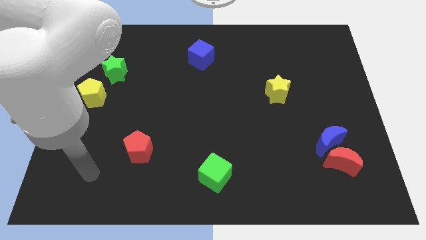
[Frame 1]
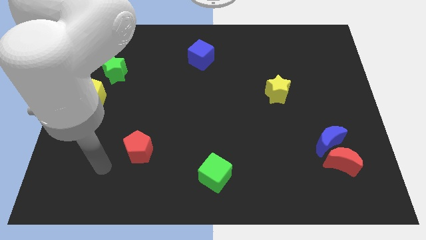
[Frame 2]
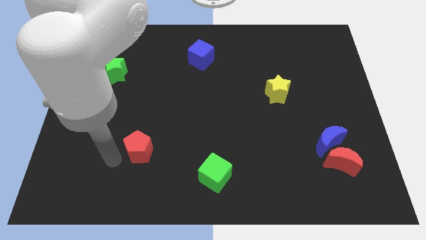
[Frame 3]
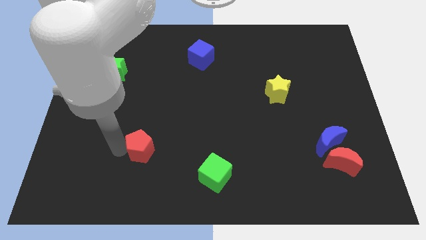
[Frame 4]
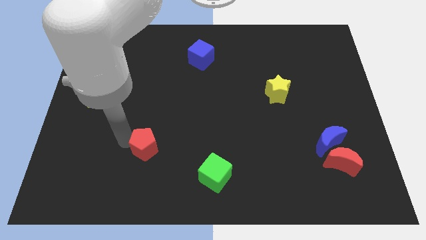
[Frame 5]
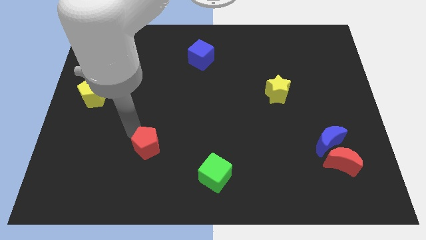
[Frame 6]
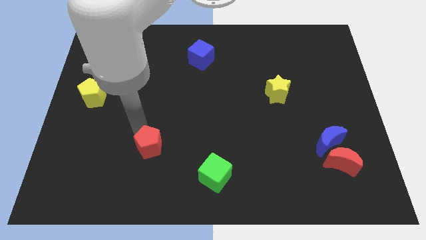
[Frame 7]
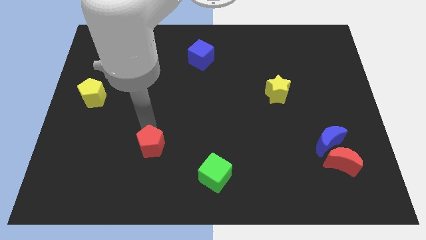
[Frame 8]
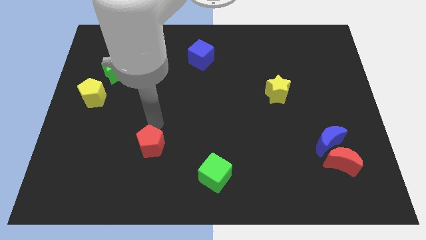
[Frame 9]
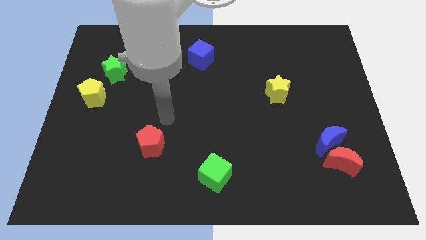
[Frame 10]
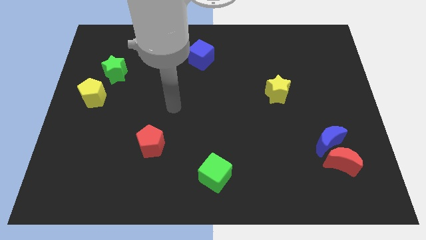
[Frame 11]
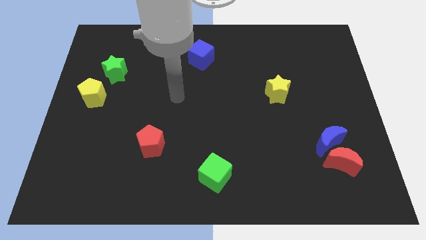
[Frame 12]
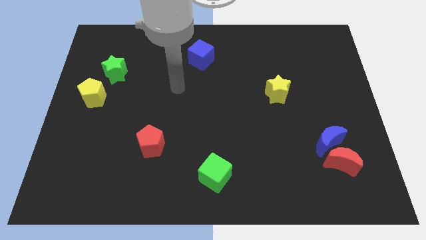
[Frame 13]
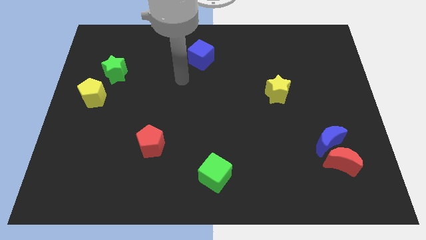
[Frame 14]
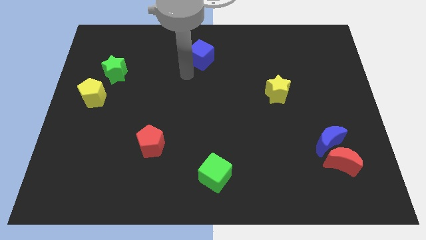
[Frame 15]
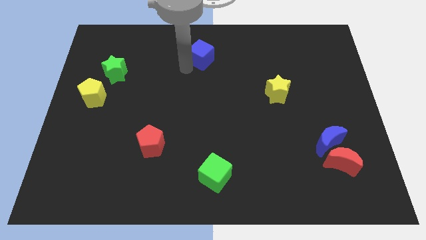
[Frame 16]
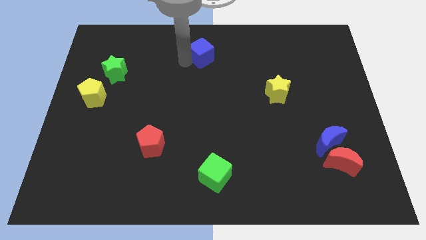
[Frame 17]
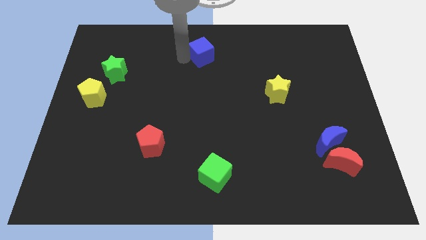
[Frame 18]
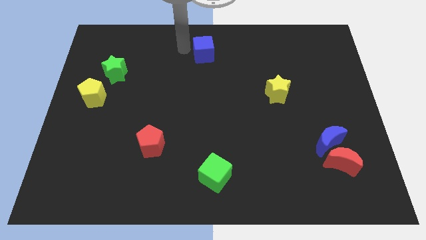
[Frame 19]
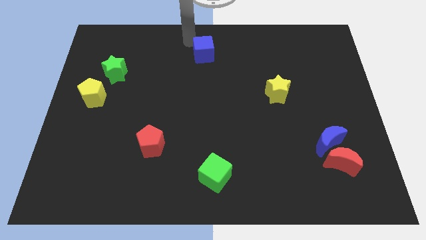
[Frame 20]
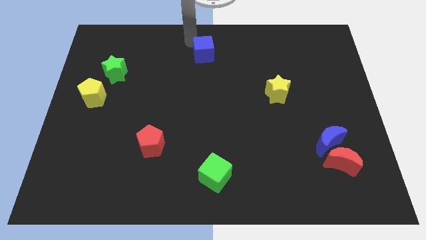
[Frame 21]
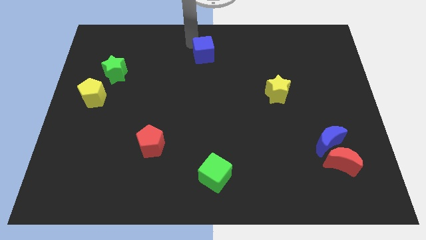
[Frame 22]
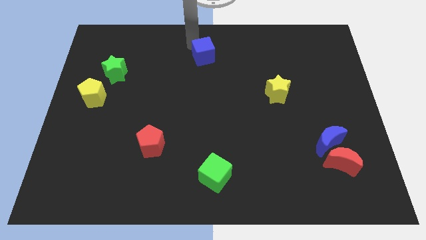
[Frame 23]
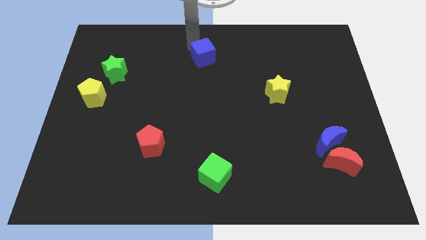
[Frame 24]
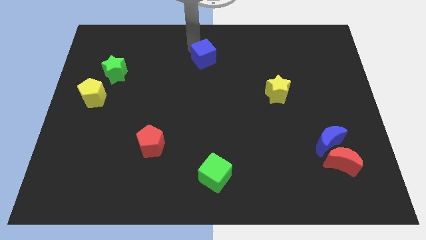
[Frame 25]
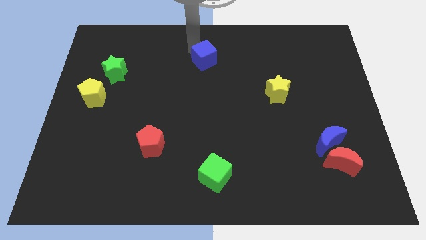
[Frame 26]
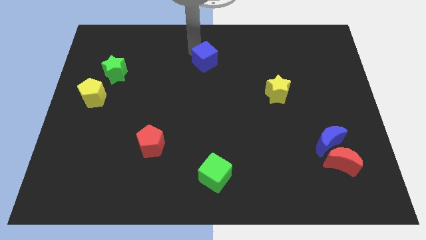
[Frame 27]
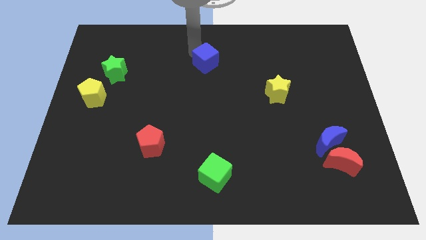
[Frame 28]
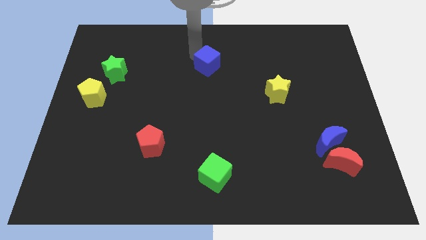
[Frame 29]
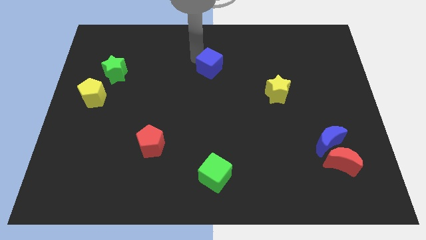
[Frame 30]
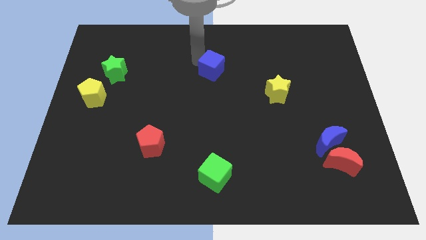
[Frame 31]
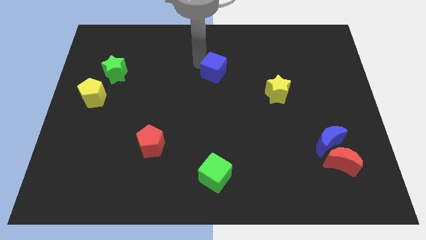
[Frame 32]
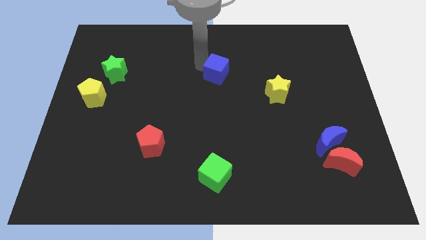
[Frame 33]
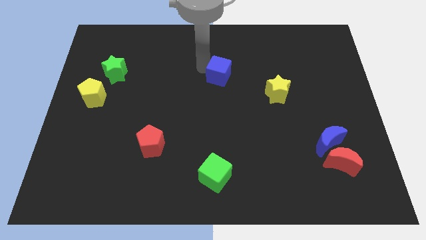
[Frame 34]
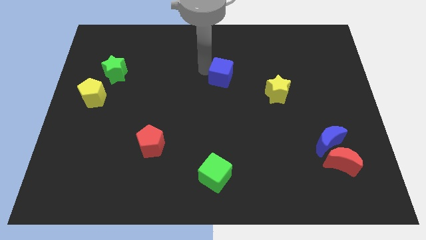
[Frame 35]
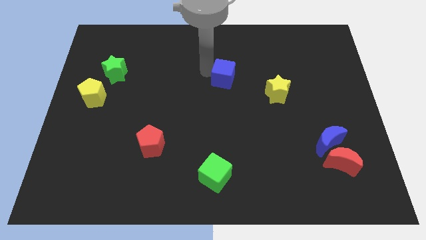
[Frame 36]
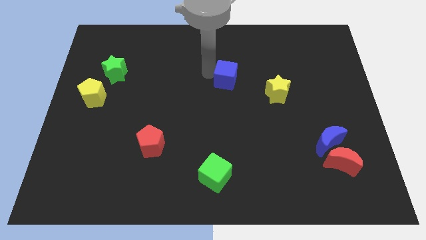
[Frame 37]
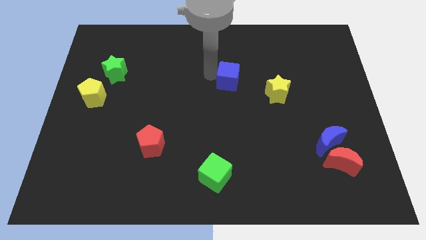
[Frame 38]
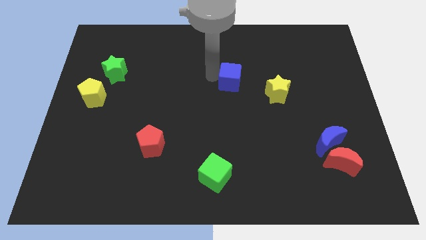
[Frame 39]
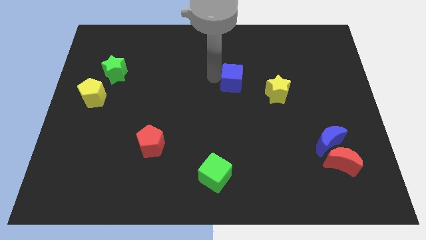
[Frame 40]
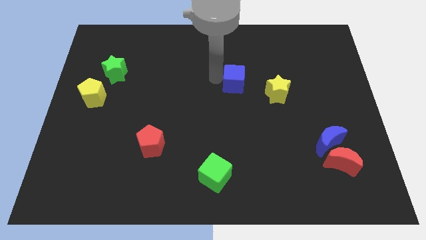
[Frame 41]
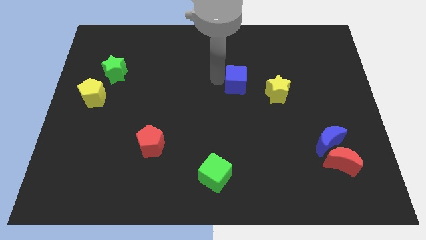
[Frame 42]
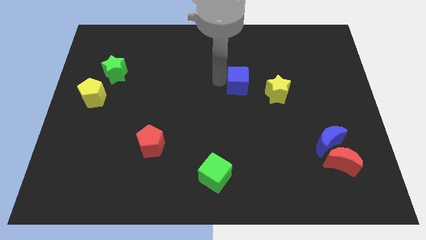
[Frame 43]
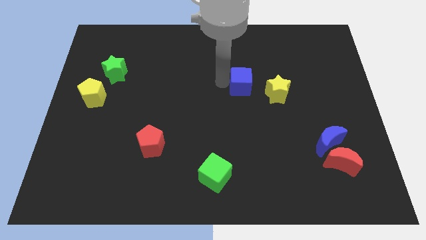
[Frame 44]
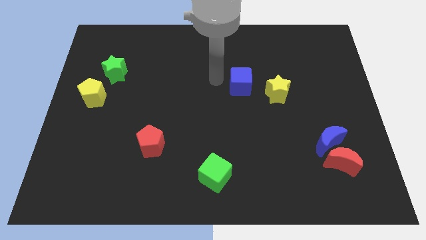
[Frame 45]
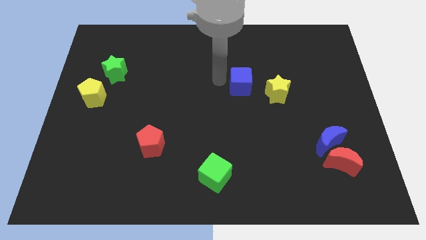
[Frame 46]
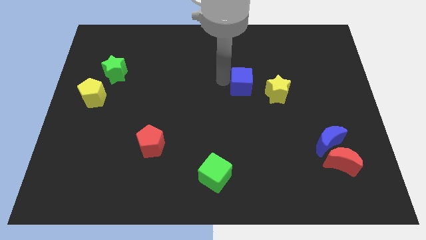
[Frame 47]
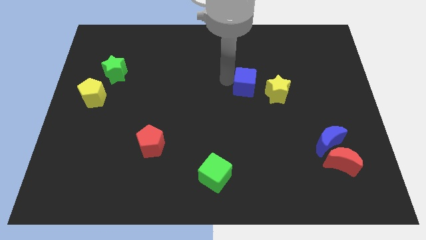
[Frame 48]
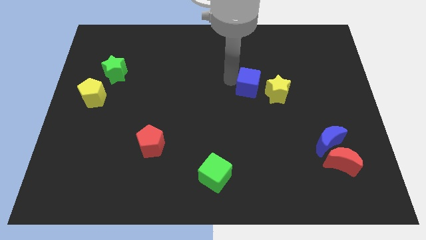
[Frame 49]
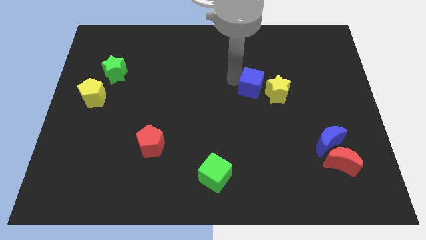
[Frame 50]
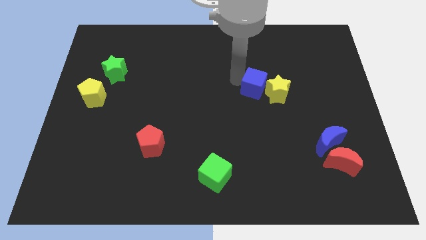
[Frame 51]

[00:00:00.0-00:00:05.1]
put the blue cube towards the yellow star

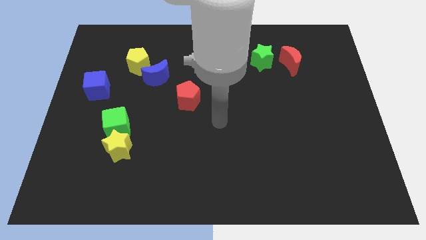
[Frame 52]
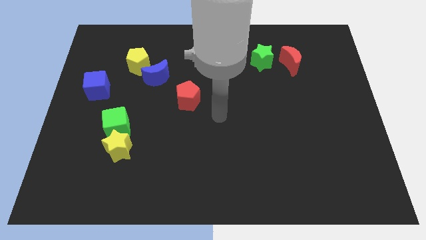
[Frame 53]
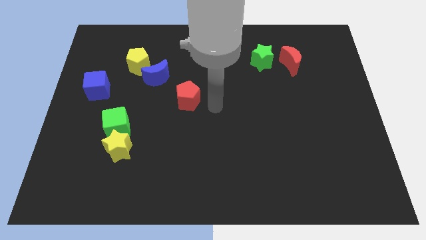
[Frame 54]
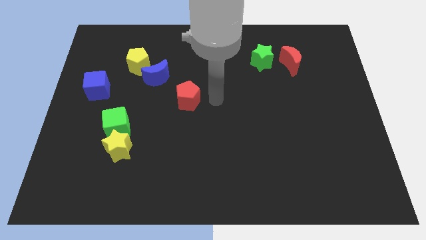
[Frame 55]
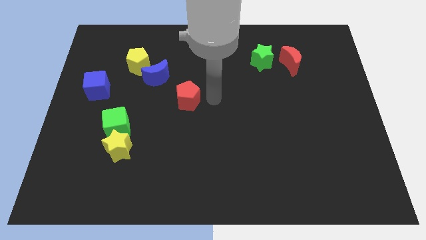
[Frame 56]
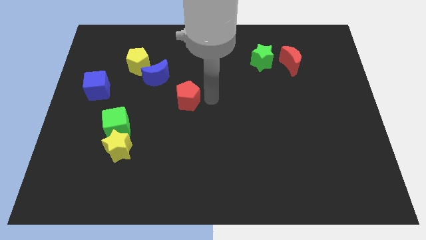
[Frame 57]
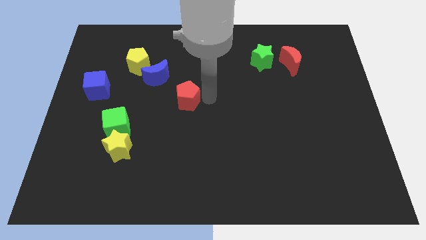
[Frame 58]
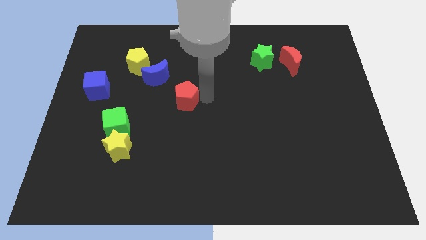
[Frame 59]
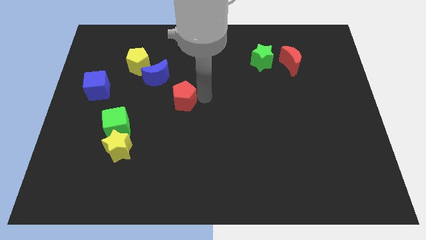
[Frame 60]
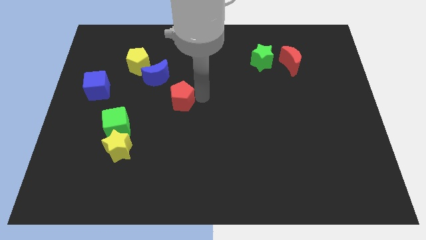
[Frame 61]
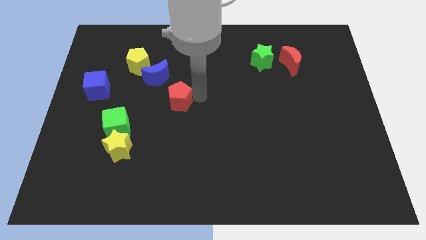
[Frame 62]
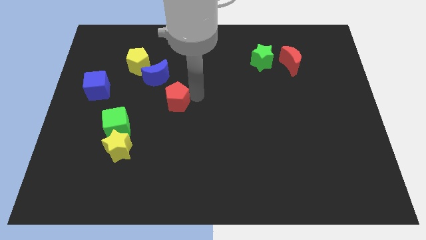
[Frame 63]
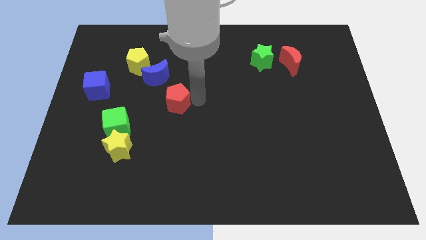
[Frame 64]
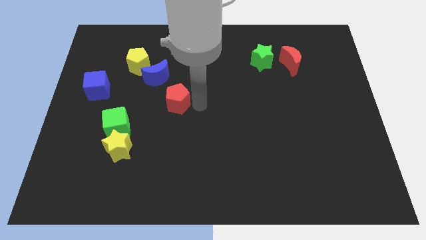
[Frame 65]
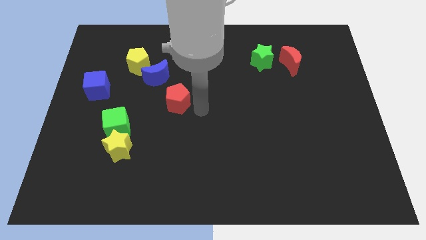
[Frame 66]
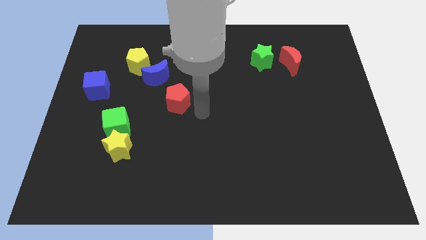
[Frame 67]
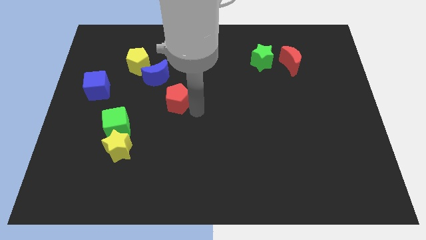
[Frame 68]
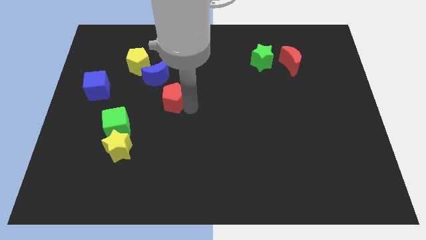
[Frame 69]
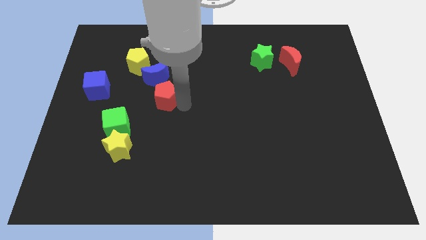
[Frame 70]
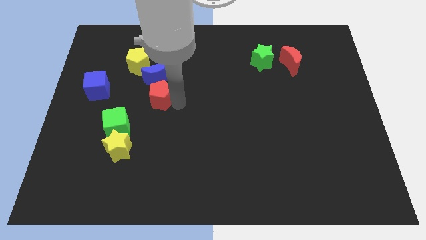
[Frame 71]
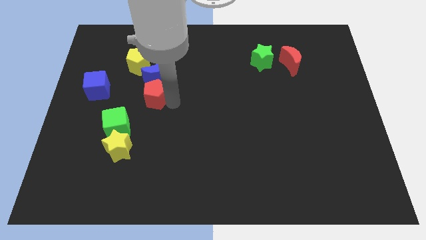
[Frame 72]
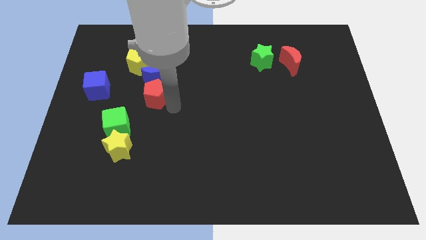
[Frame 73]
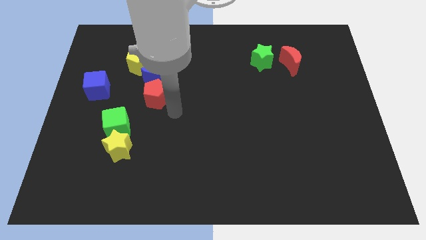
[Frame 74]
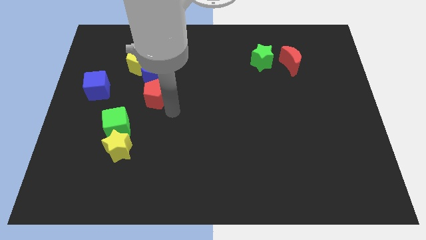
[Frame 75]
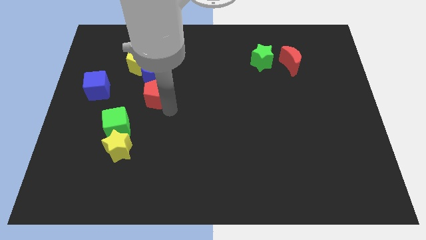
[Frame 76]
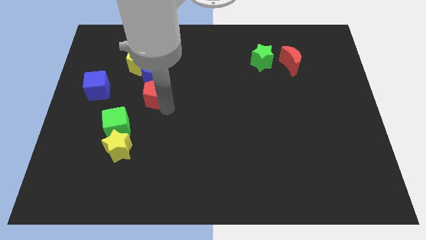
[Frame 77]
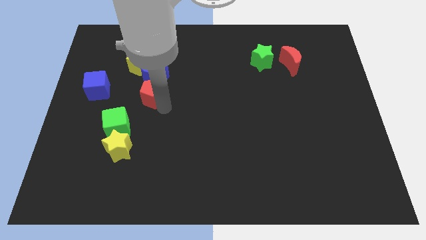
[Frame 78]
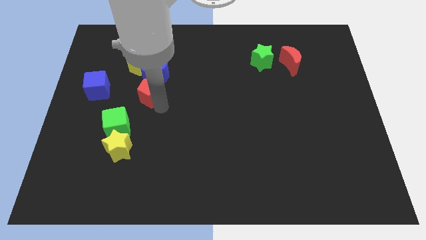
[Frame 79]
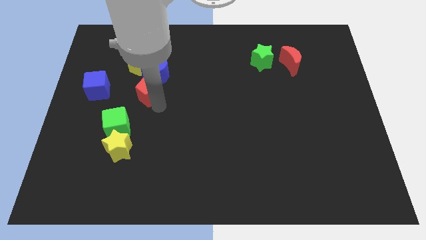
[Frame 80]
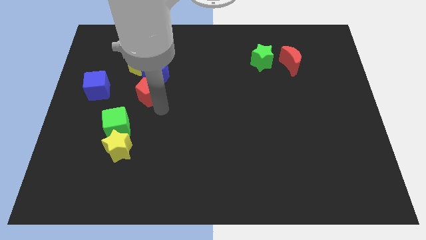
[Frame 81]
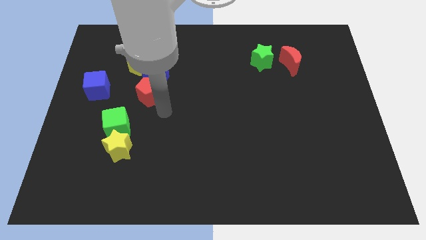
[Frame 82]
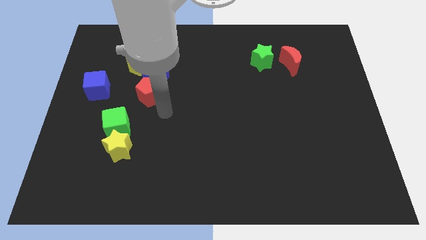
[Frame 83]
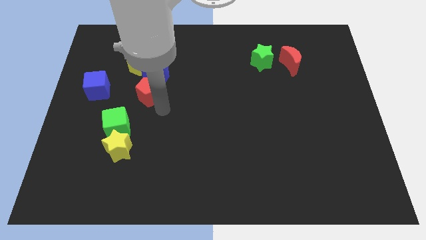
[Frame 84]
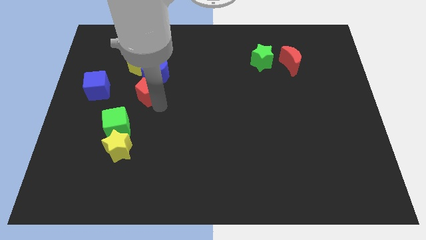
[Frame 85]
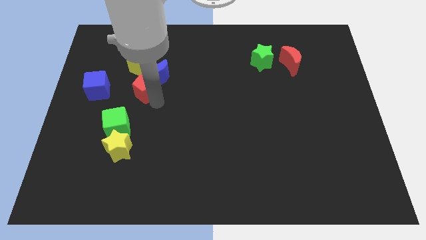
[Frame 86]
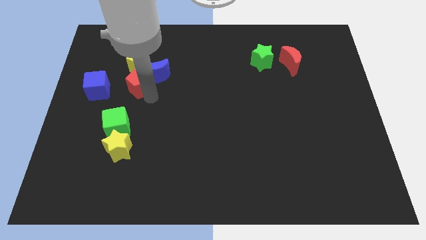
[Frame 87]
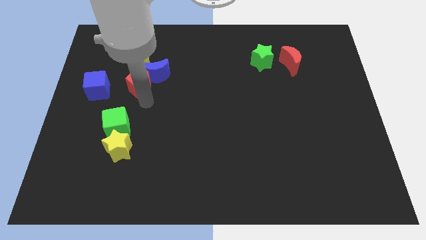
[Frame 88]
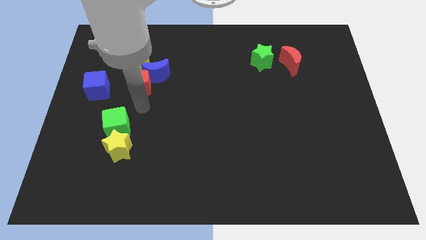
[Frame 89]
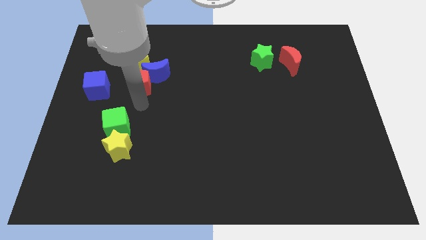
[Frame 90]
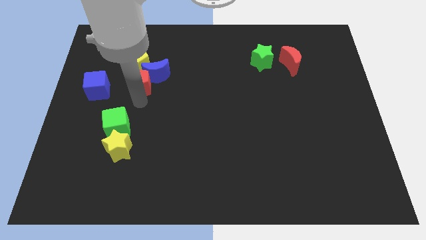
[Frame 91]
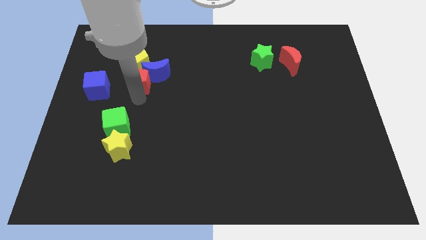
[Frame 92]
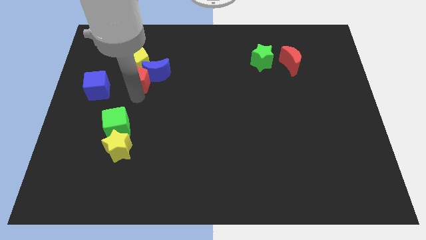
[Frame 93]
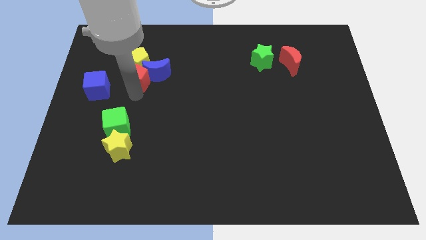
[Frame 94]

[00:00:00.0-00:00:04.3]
move the red pentagon next to the yellow pentagon
